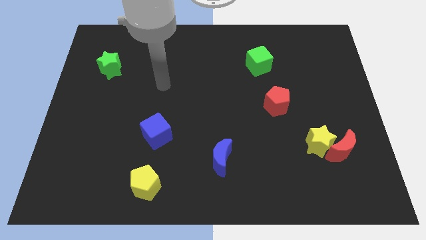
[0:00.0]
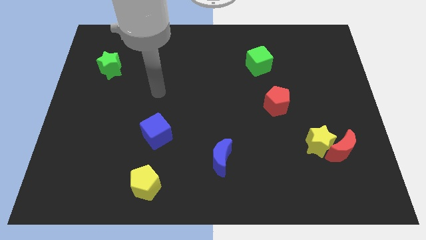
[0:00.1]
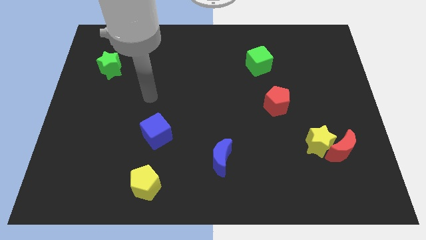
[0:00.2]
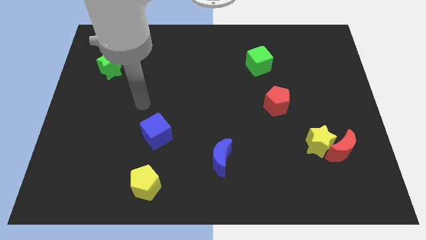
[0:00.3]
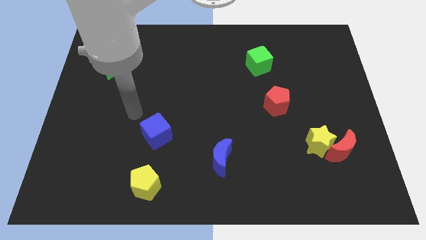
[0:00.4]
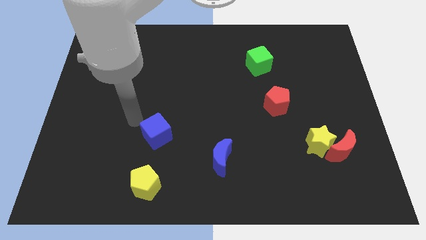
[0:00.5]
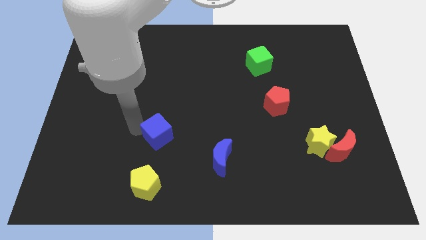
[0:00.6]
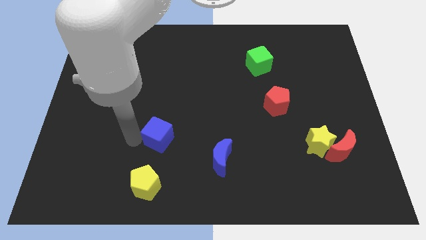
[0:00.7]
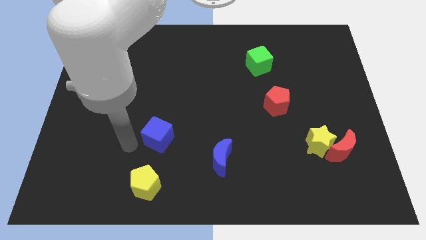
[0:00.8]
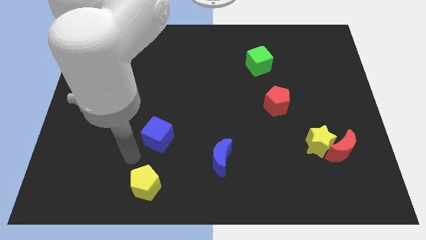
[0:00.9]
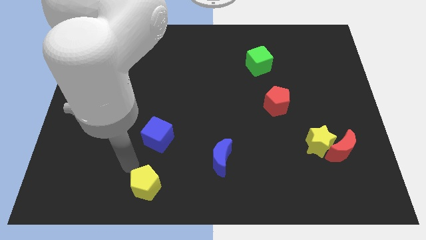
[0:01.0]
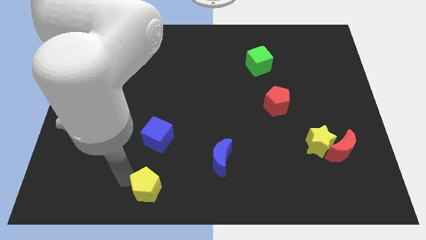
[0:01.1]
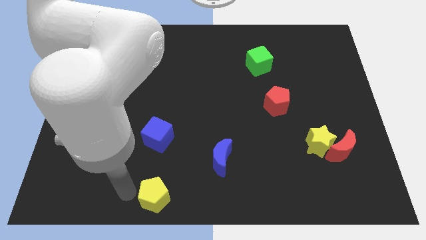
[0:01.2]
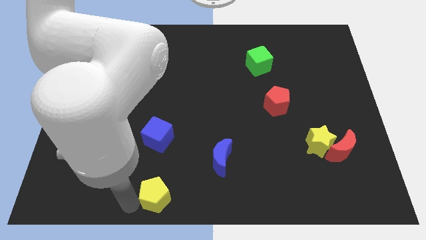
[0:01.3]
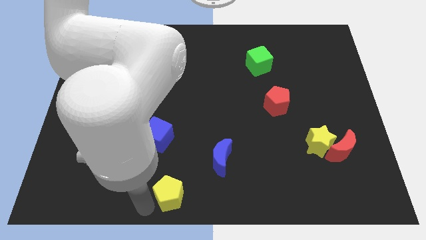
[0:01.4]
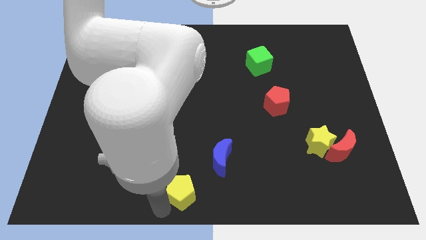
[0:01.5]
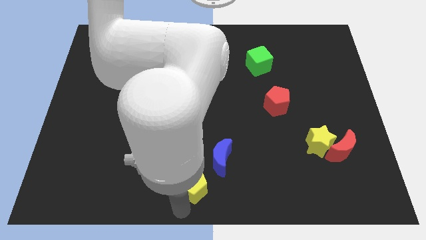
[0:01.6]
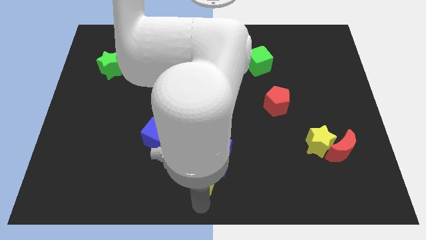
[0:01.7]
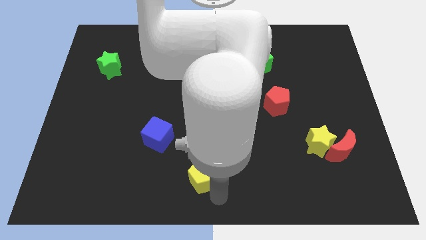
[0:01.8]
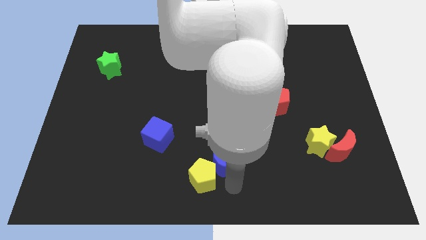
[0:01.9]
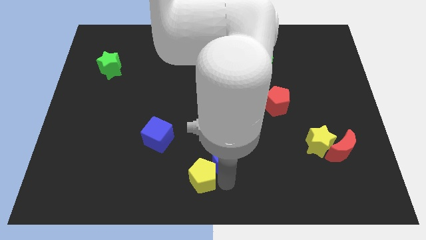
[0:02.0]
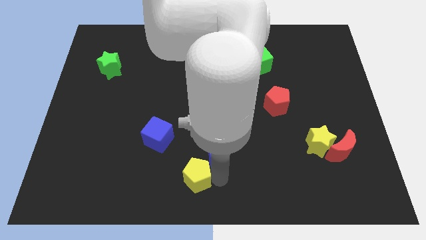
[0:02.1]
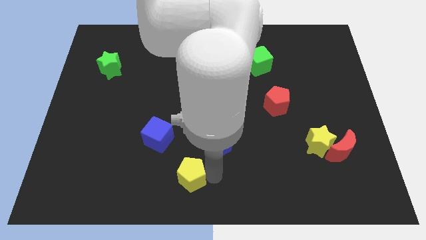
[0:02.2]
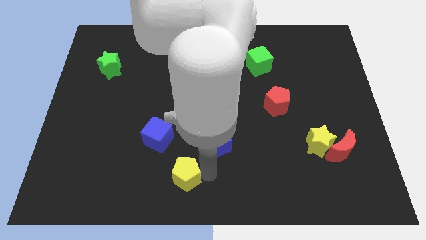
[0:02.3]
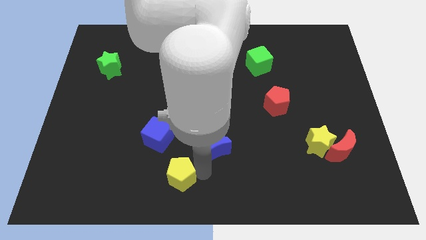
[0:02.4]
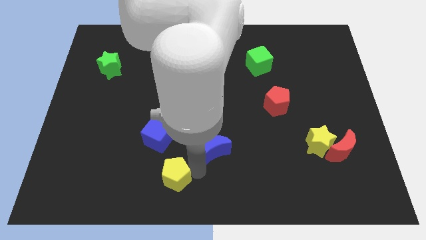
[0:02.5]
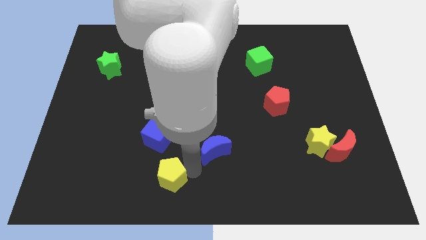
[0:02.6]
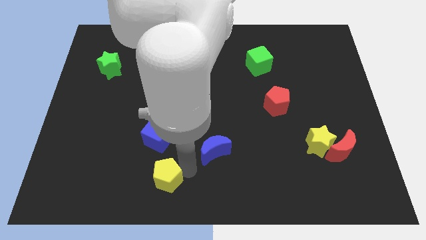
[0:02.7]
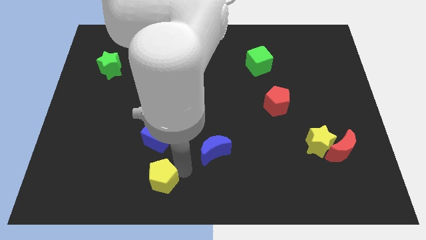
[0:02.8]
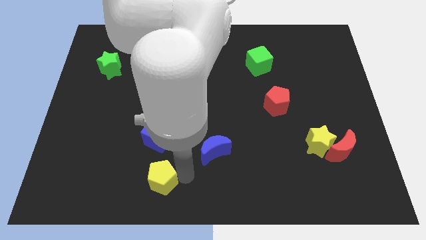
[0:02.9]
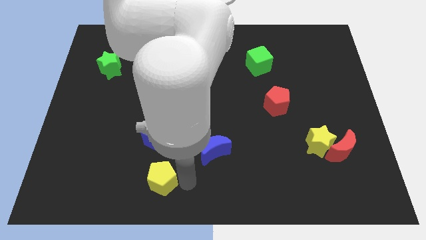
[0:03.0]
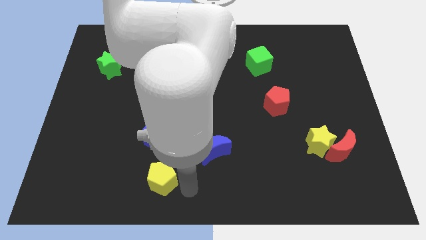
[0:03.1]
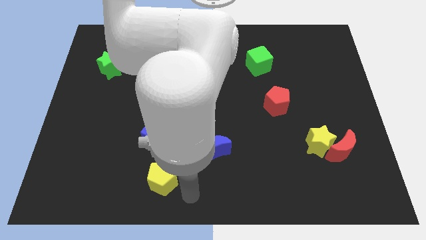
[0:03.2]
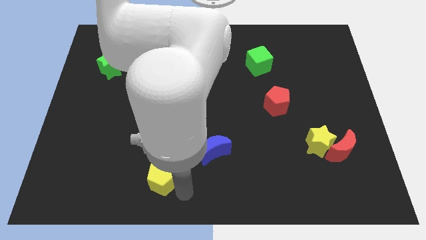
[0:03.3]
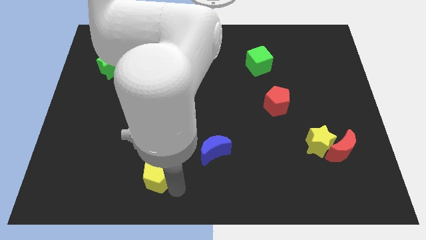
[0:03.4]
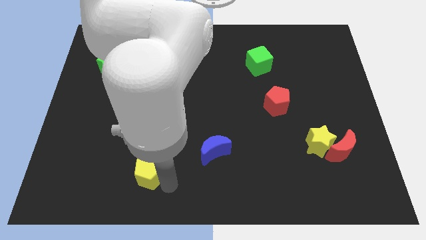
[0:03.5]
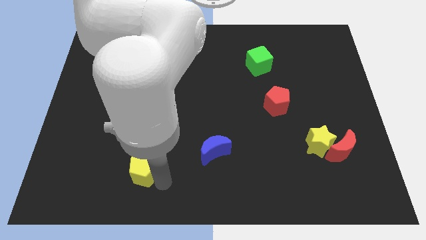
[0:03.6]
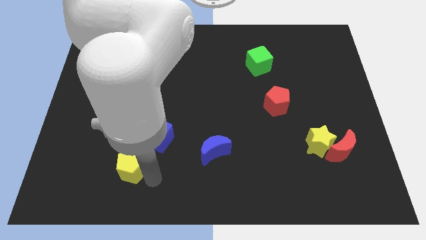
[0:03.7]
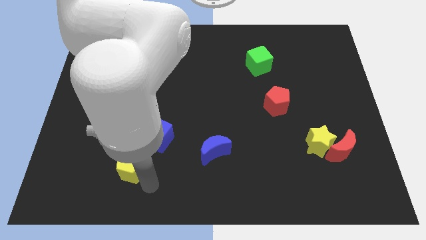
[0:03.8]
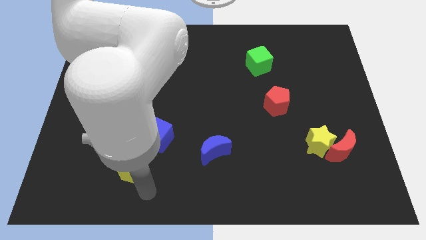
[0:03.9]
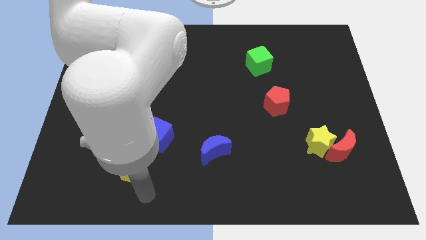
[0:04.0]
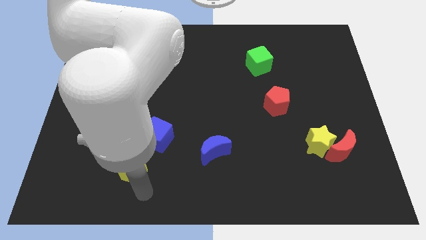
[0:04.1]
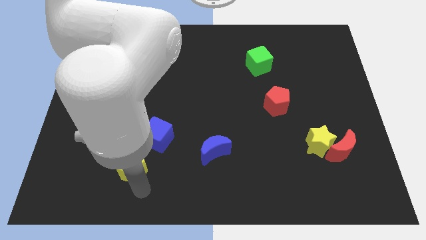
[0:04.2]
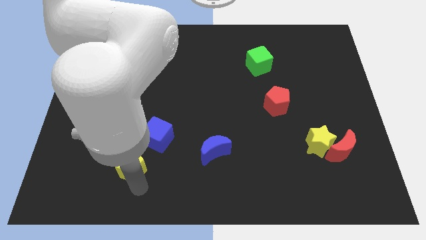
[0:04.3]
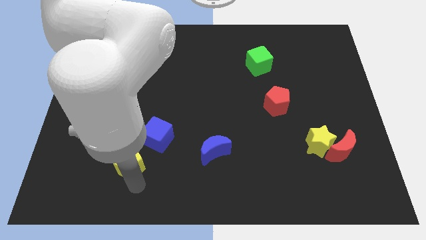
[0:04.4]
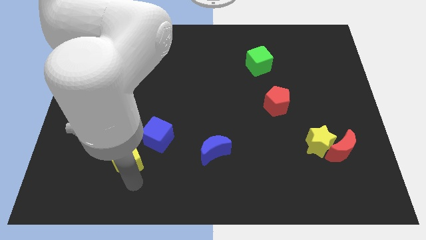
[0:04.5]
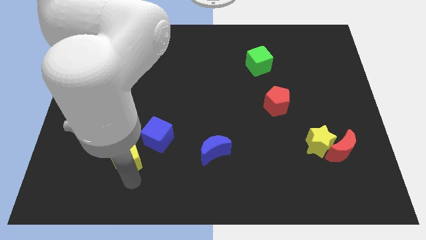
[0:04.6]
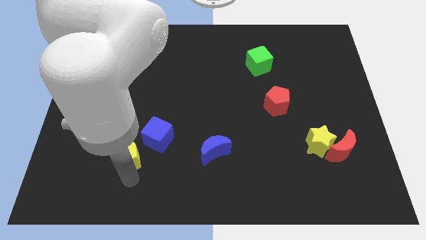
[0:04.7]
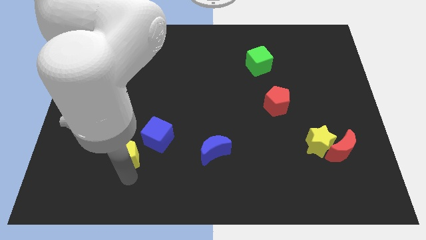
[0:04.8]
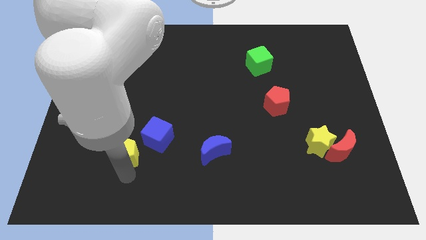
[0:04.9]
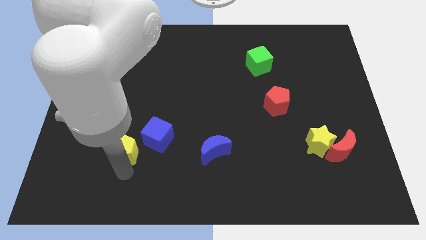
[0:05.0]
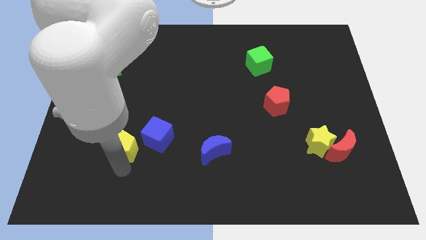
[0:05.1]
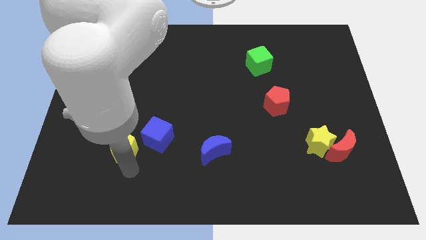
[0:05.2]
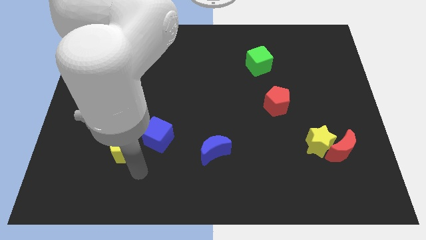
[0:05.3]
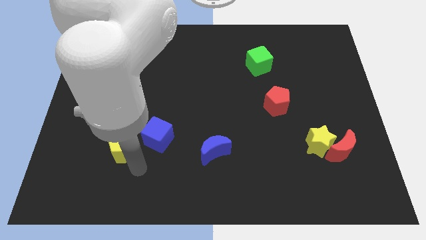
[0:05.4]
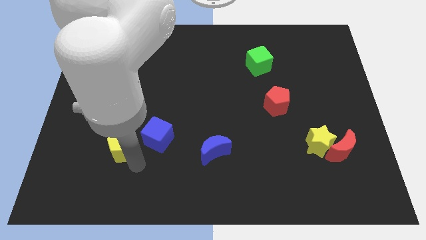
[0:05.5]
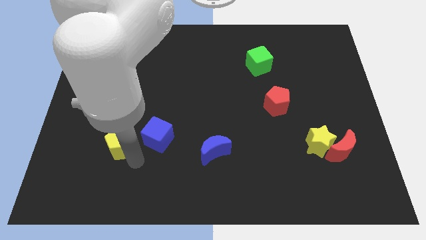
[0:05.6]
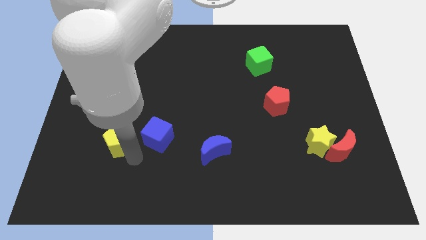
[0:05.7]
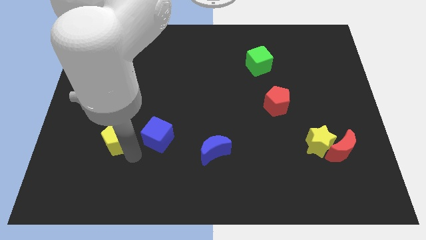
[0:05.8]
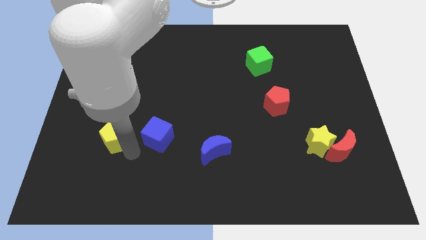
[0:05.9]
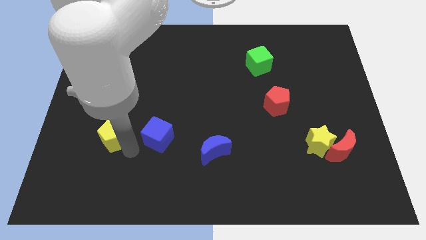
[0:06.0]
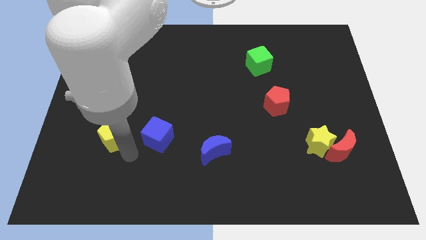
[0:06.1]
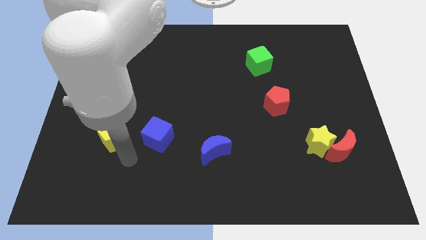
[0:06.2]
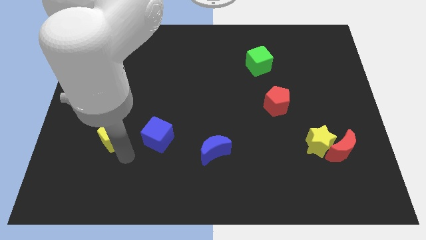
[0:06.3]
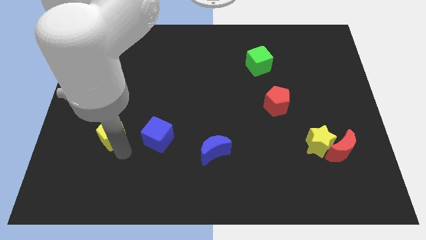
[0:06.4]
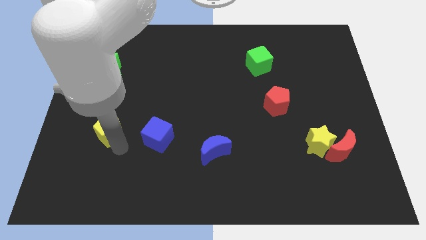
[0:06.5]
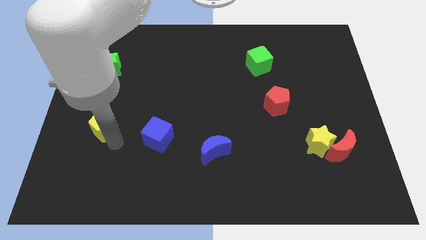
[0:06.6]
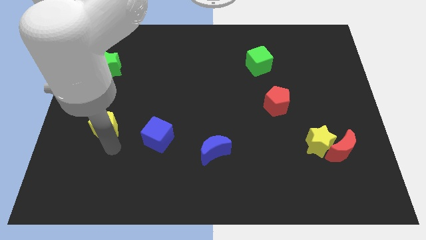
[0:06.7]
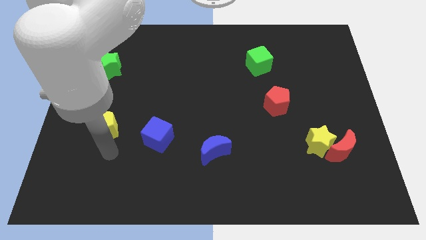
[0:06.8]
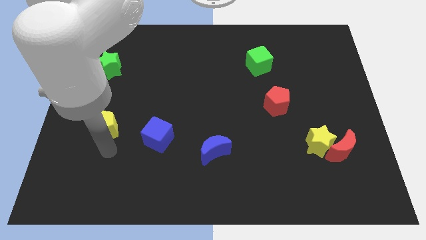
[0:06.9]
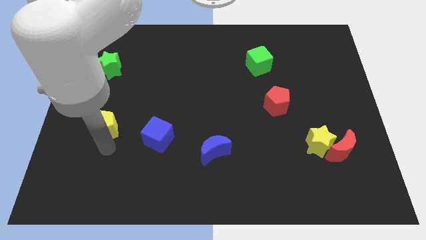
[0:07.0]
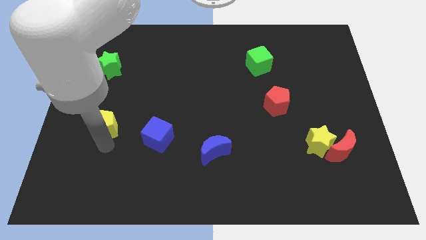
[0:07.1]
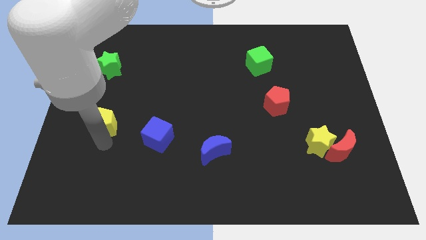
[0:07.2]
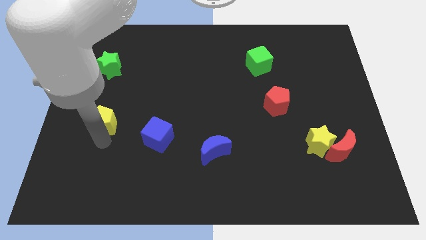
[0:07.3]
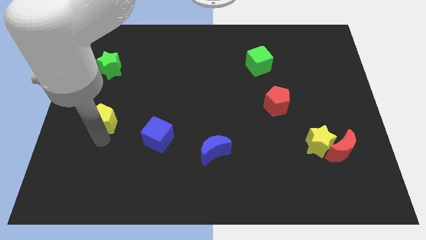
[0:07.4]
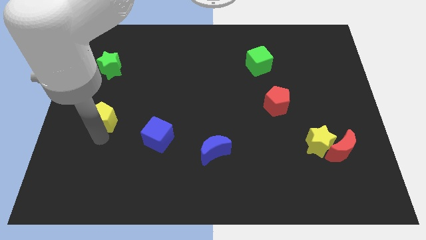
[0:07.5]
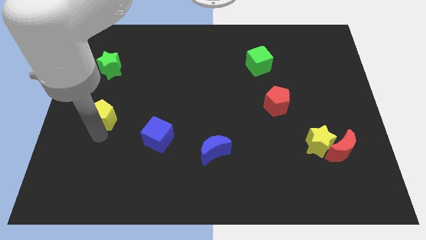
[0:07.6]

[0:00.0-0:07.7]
put the yellow pentagon below the green star
